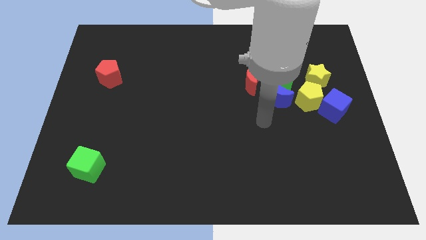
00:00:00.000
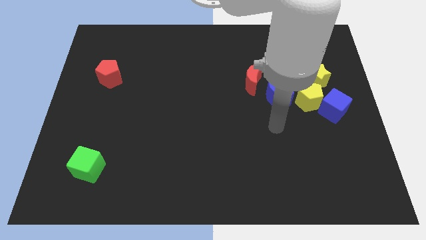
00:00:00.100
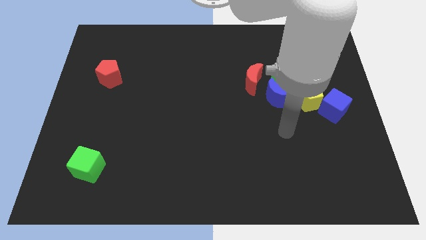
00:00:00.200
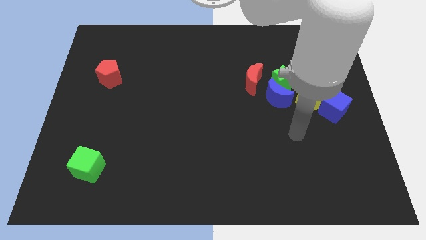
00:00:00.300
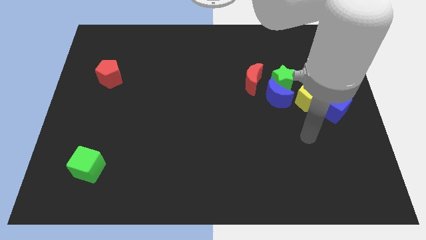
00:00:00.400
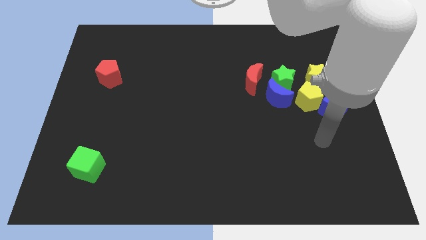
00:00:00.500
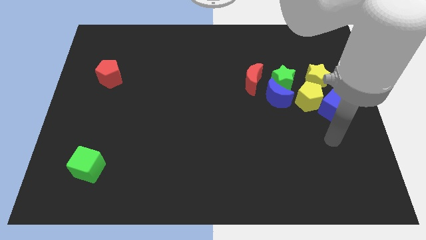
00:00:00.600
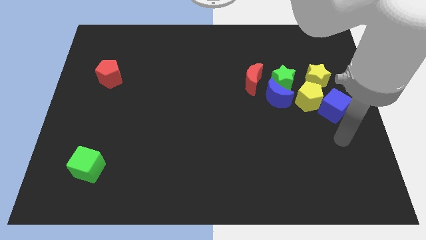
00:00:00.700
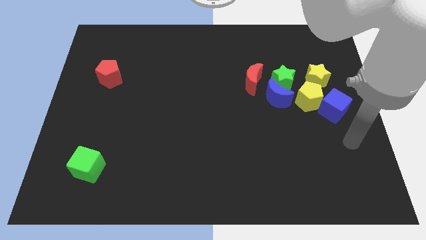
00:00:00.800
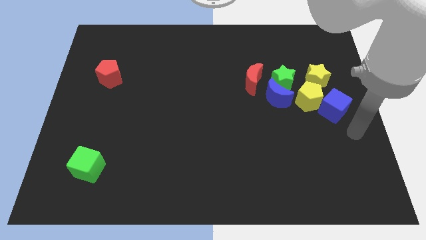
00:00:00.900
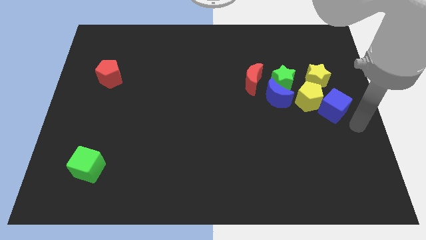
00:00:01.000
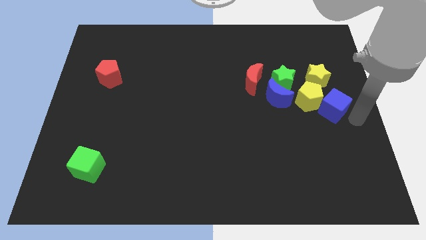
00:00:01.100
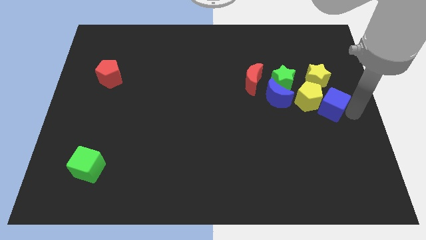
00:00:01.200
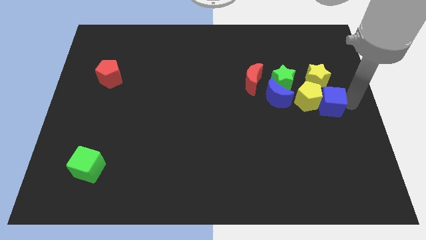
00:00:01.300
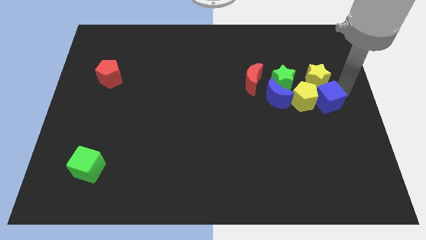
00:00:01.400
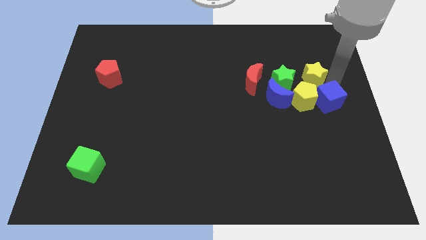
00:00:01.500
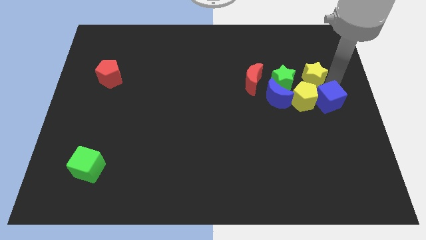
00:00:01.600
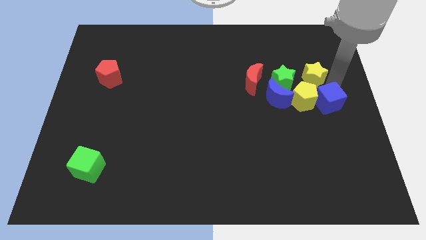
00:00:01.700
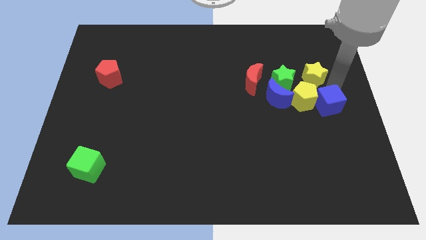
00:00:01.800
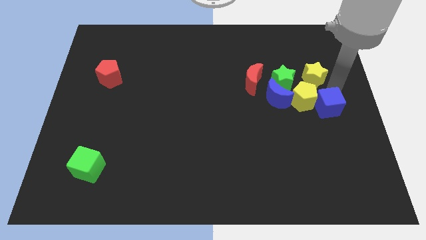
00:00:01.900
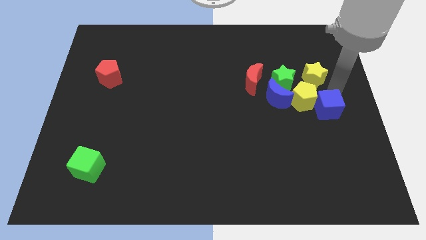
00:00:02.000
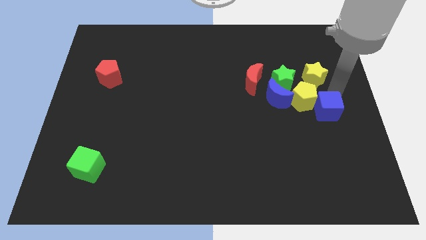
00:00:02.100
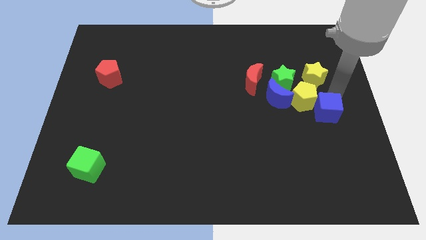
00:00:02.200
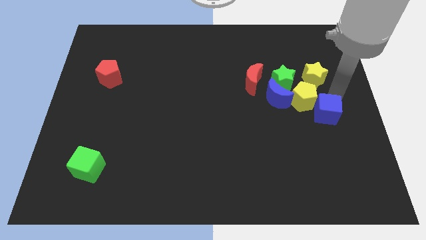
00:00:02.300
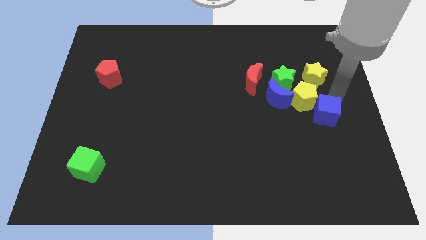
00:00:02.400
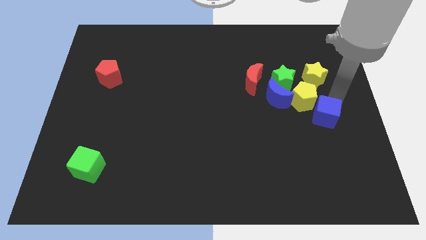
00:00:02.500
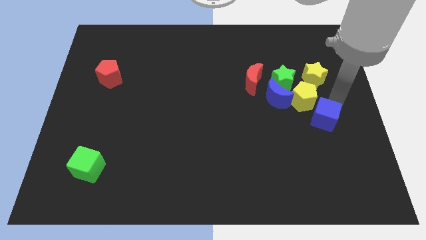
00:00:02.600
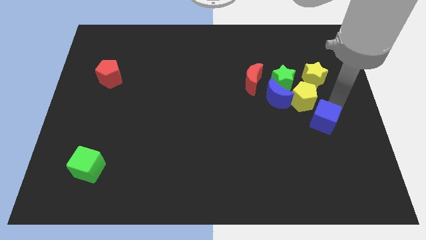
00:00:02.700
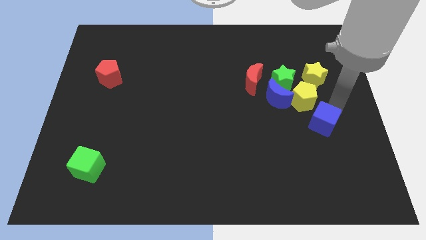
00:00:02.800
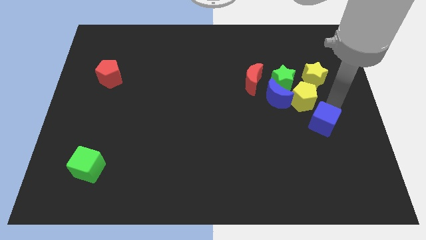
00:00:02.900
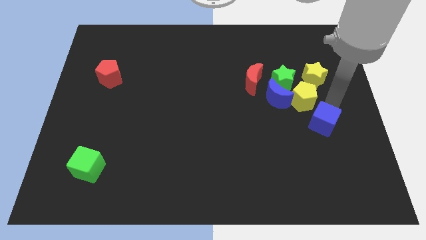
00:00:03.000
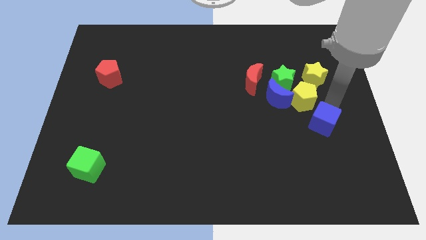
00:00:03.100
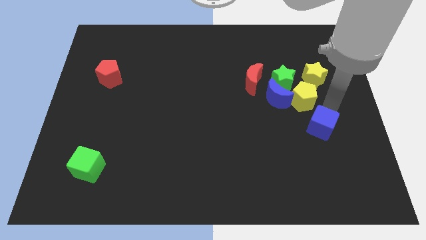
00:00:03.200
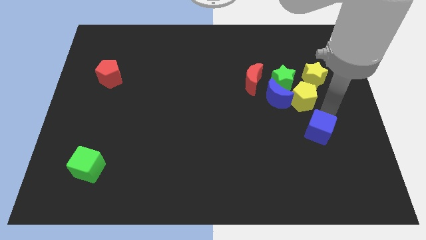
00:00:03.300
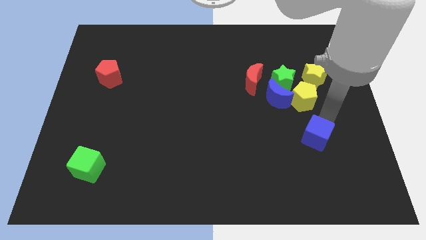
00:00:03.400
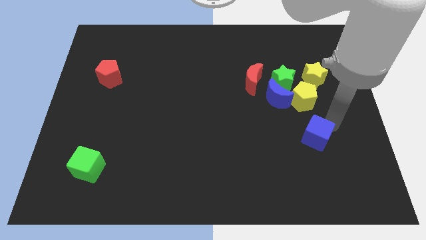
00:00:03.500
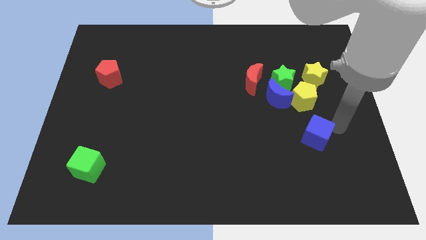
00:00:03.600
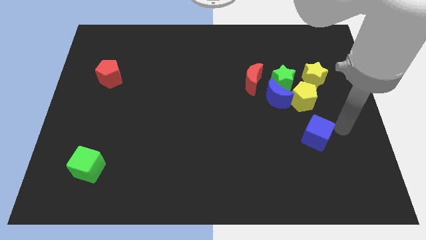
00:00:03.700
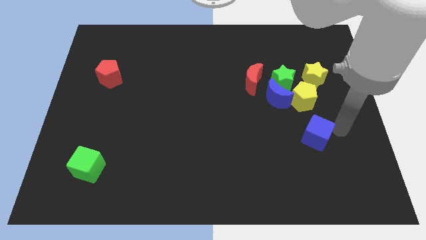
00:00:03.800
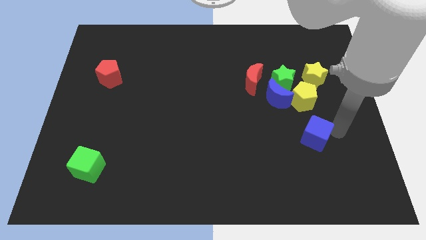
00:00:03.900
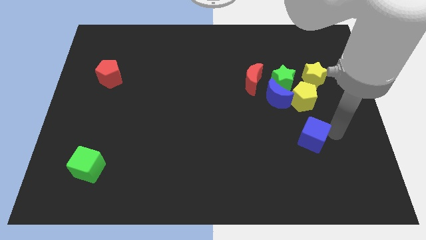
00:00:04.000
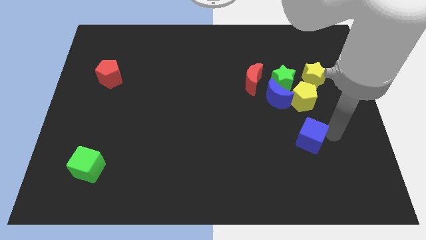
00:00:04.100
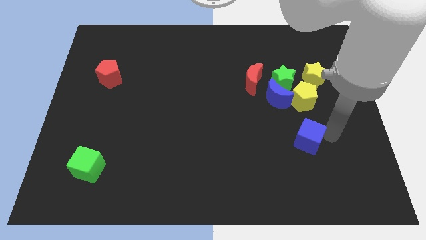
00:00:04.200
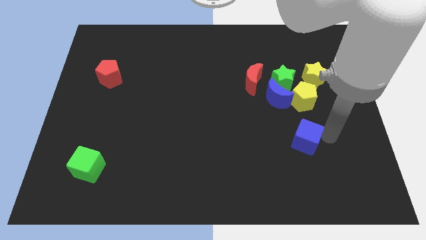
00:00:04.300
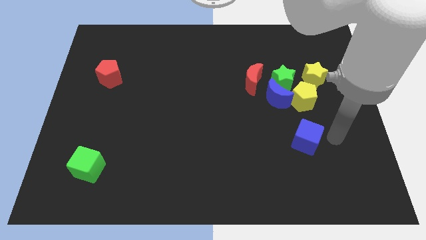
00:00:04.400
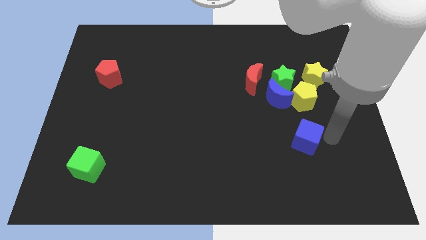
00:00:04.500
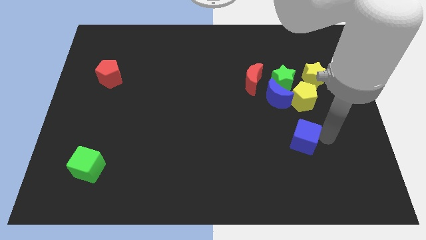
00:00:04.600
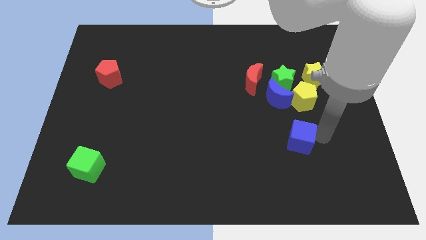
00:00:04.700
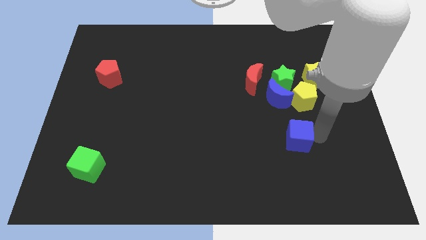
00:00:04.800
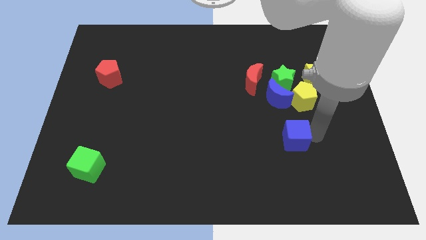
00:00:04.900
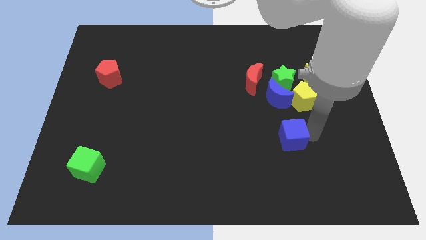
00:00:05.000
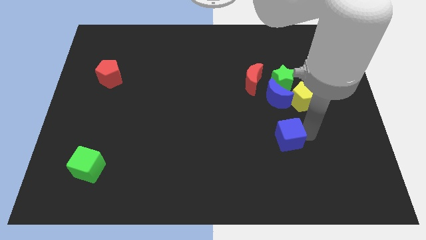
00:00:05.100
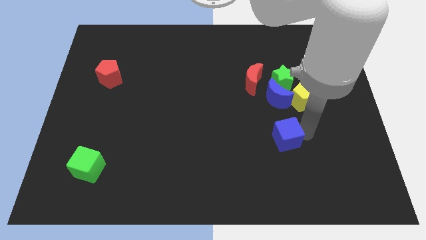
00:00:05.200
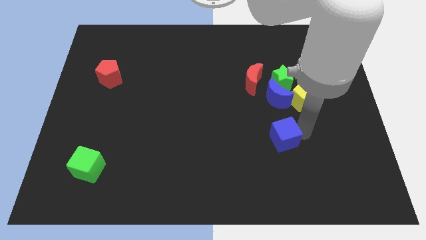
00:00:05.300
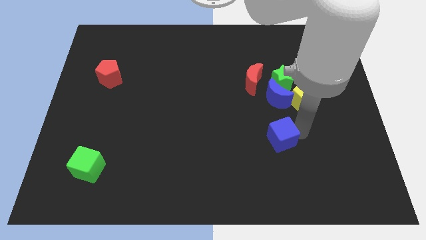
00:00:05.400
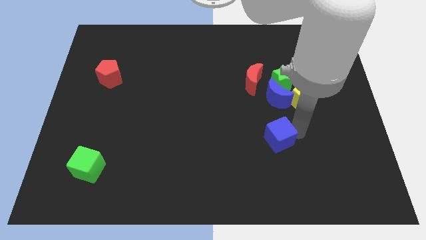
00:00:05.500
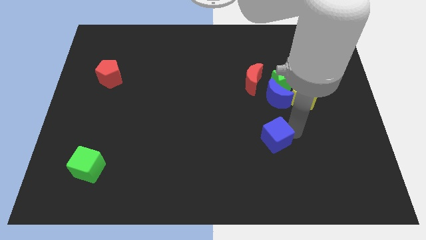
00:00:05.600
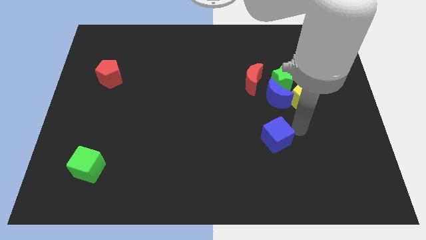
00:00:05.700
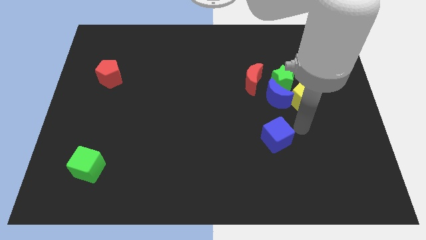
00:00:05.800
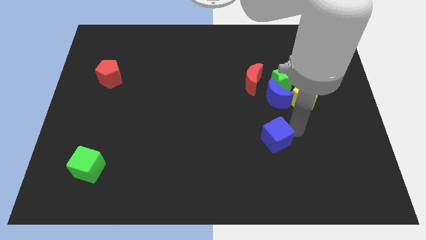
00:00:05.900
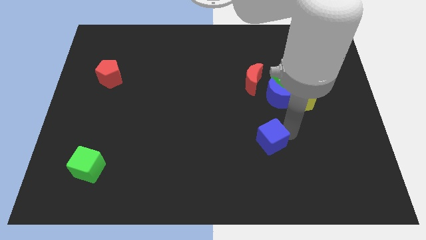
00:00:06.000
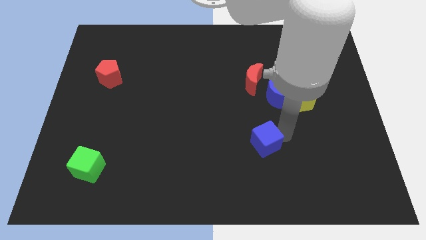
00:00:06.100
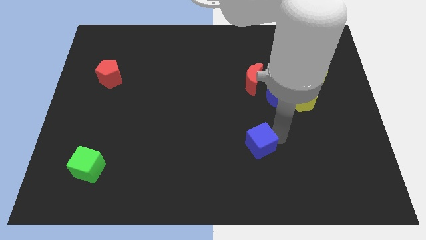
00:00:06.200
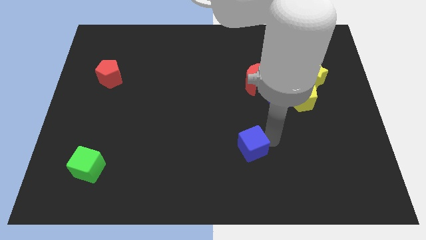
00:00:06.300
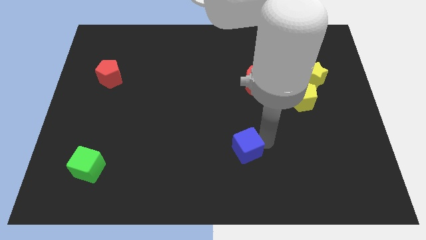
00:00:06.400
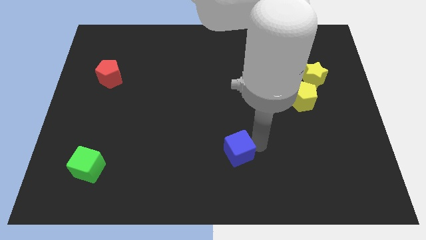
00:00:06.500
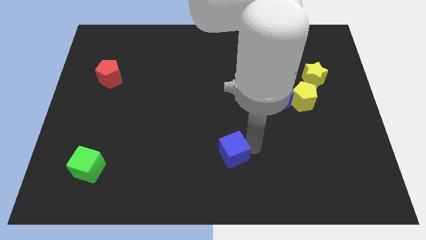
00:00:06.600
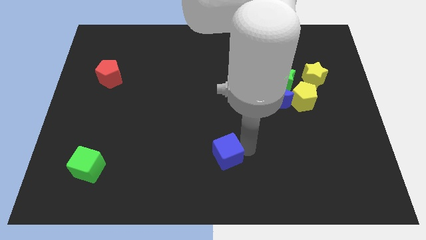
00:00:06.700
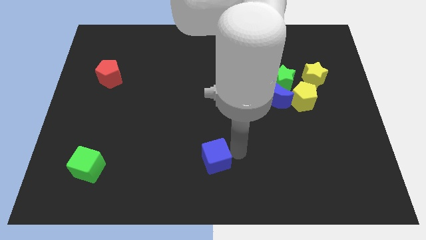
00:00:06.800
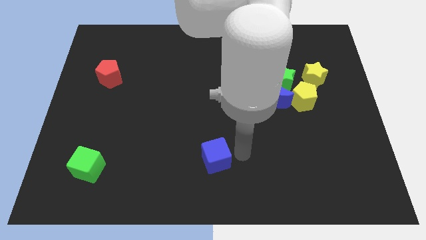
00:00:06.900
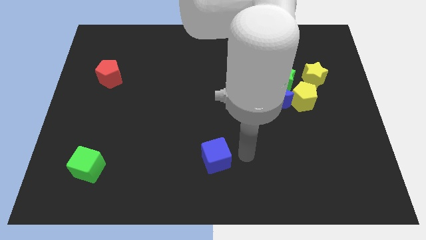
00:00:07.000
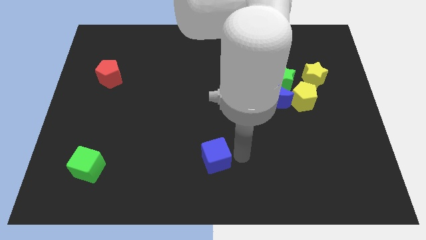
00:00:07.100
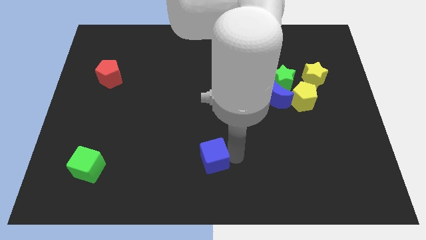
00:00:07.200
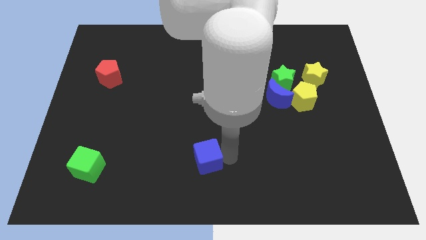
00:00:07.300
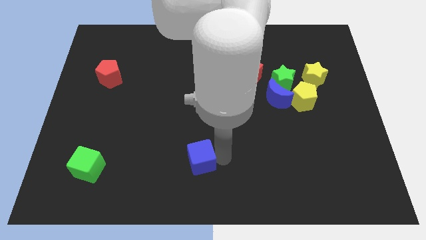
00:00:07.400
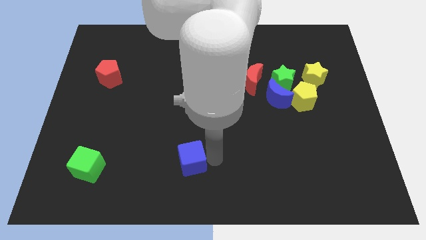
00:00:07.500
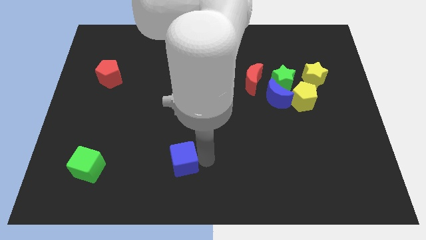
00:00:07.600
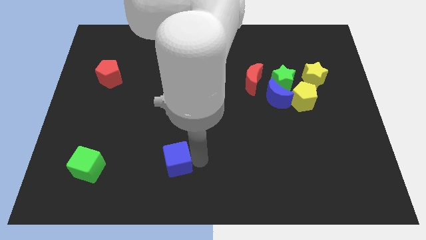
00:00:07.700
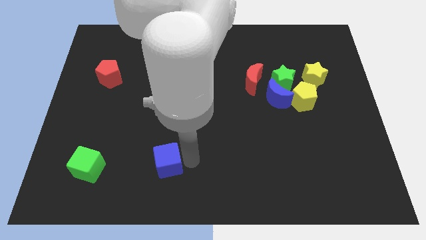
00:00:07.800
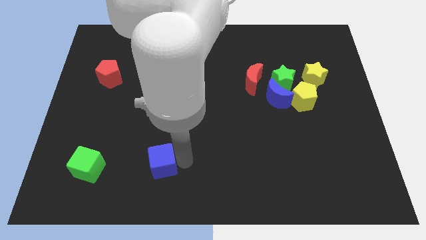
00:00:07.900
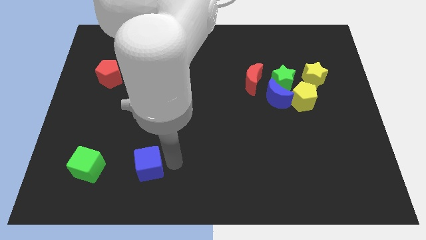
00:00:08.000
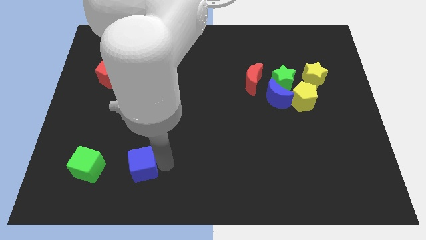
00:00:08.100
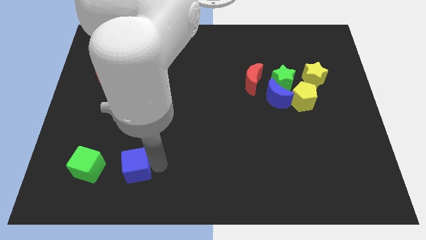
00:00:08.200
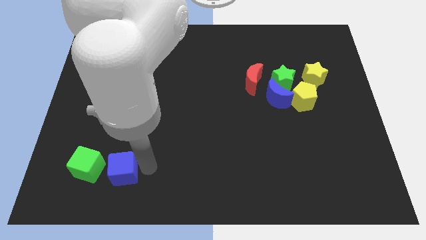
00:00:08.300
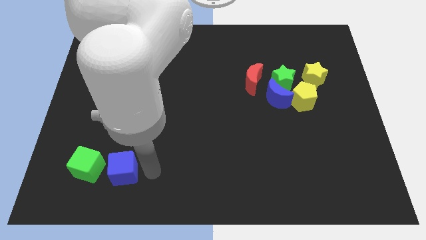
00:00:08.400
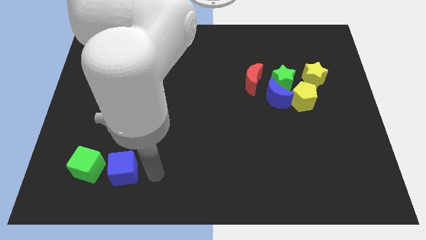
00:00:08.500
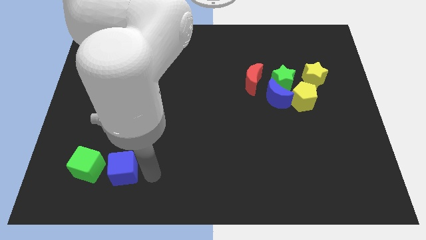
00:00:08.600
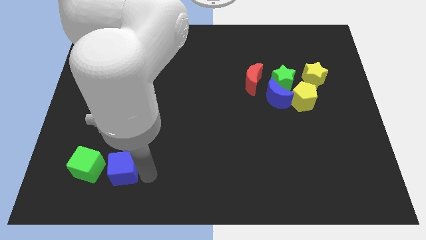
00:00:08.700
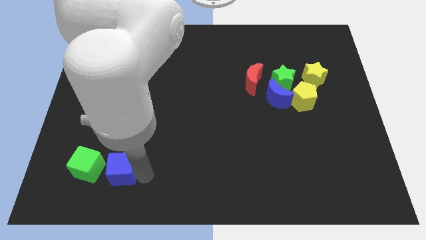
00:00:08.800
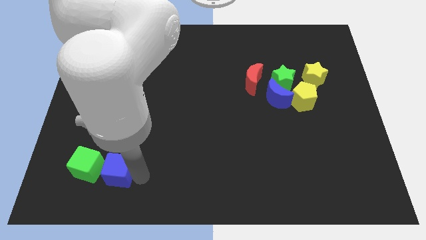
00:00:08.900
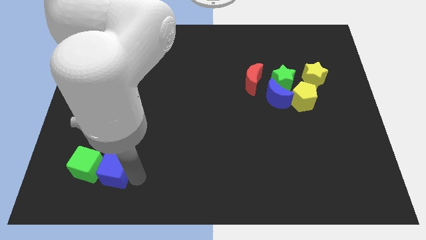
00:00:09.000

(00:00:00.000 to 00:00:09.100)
move the blue cube close to the green cube
